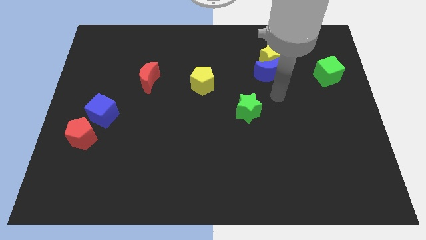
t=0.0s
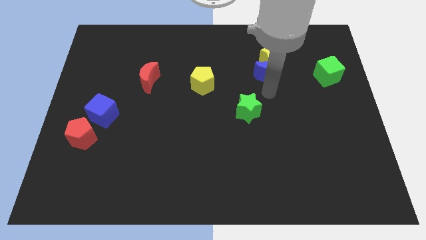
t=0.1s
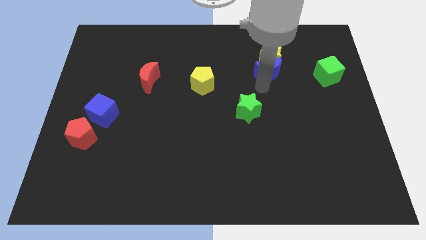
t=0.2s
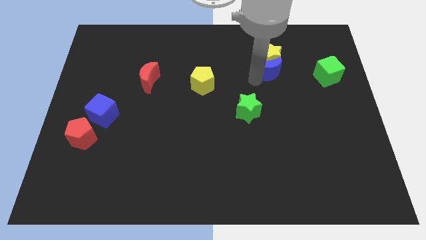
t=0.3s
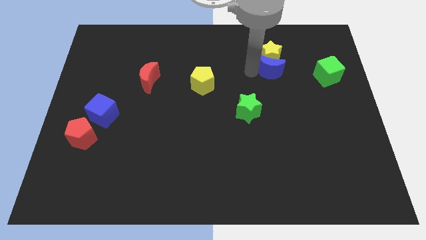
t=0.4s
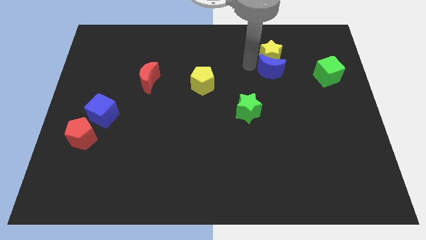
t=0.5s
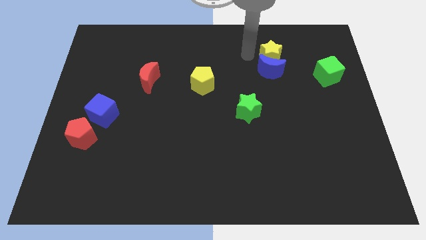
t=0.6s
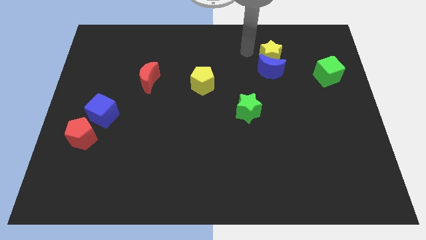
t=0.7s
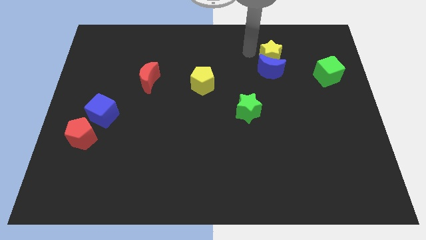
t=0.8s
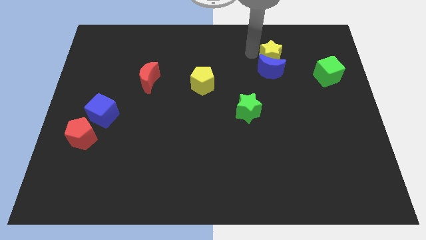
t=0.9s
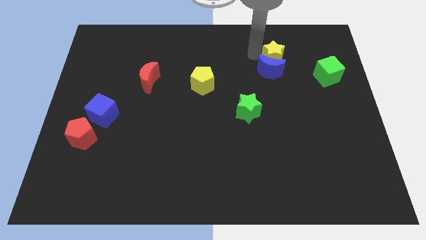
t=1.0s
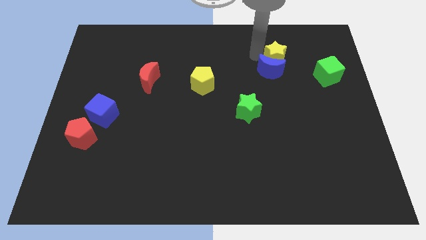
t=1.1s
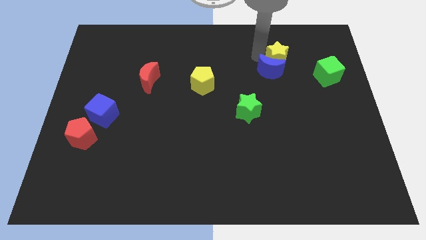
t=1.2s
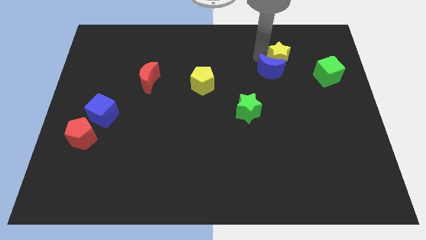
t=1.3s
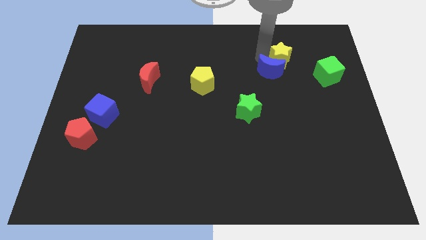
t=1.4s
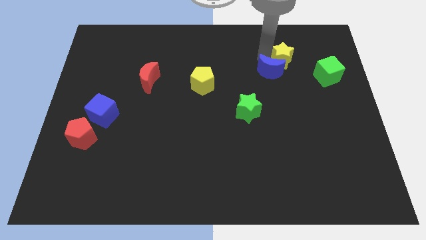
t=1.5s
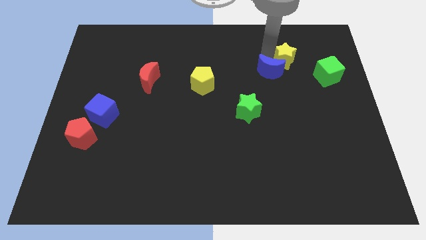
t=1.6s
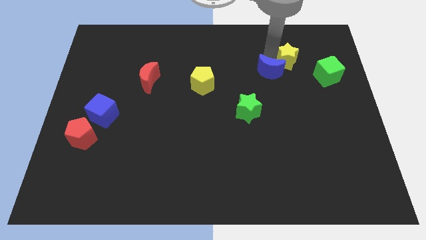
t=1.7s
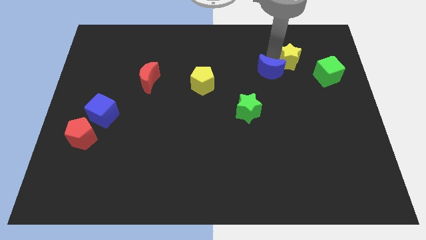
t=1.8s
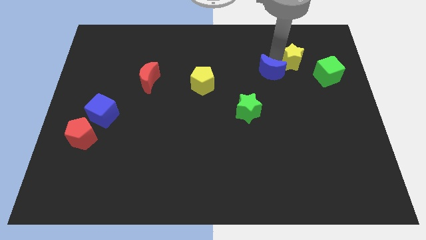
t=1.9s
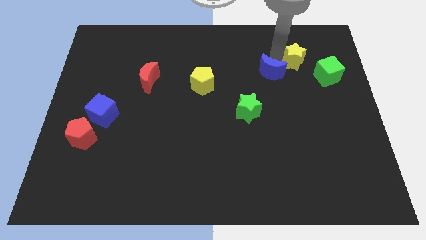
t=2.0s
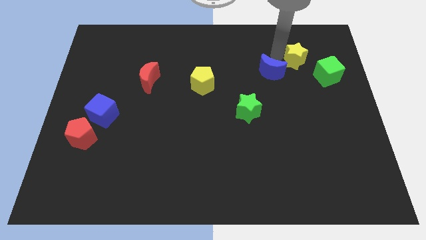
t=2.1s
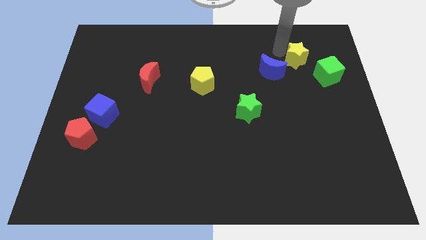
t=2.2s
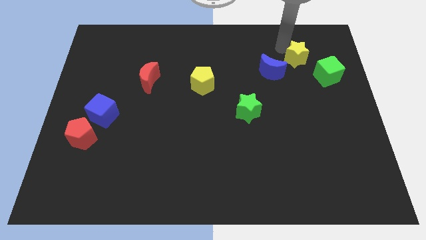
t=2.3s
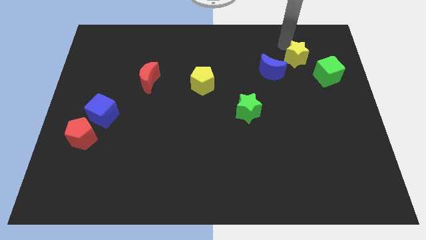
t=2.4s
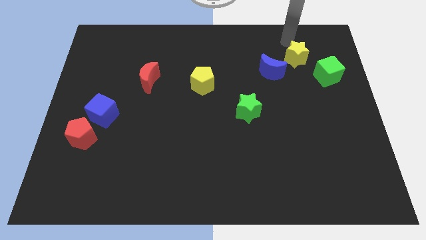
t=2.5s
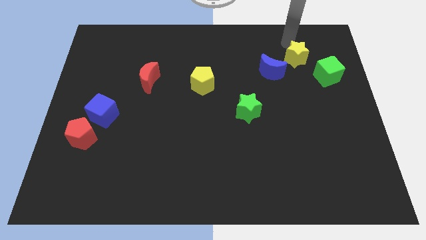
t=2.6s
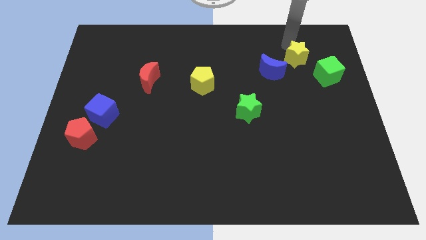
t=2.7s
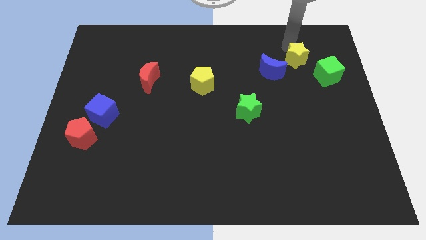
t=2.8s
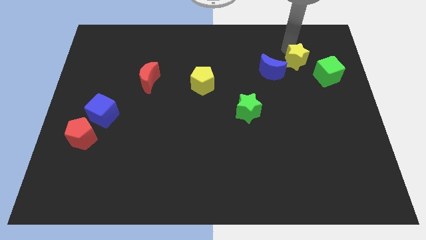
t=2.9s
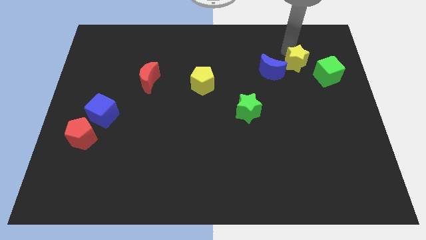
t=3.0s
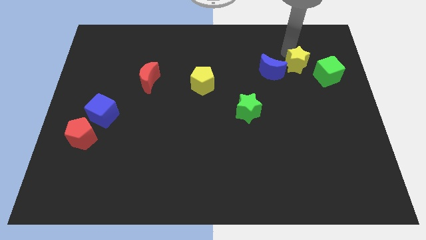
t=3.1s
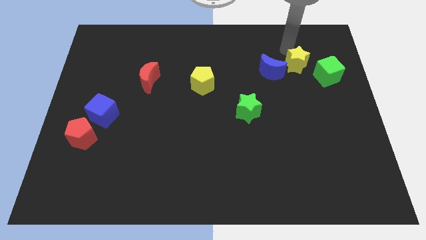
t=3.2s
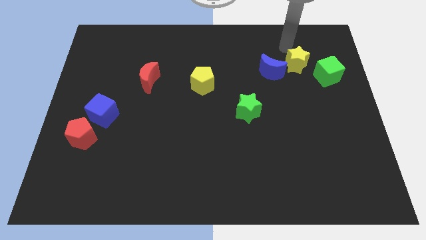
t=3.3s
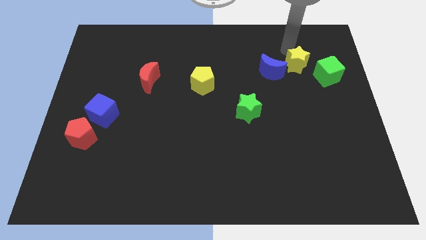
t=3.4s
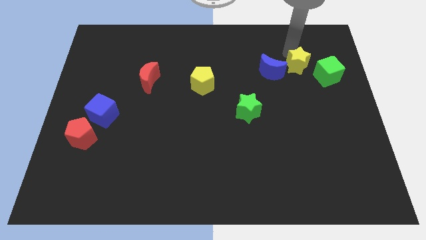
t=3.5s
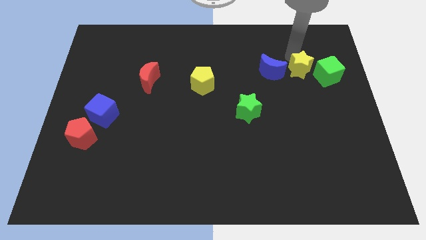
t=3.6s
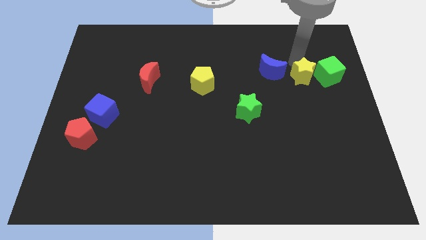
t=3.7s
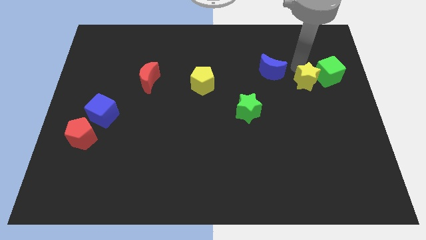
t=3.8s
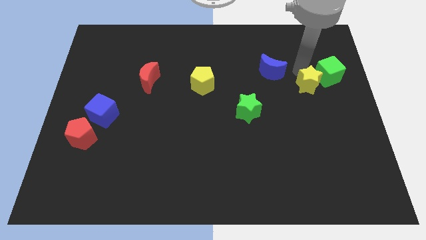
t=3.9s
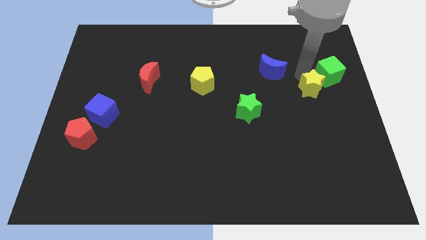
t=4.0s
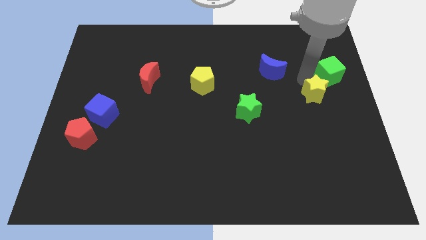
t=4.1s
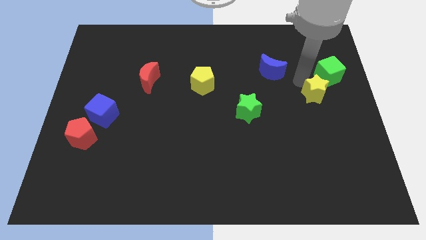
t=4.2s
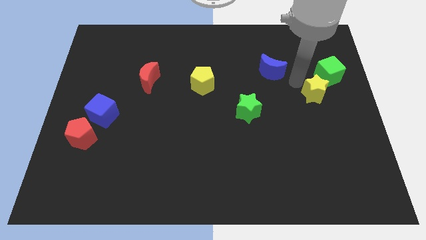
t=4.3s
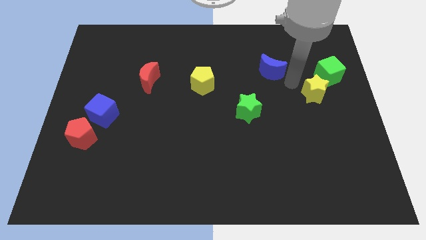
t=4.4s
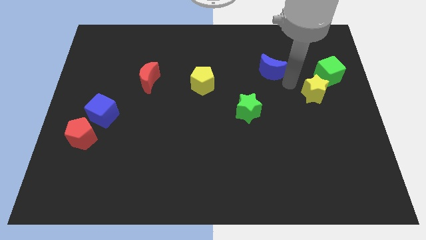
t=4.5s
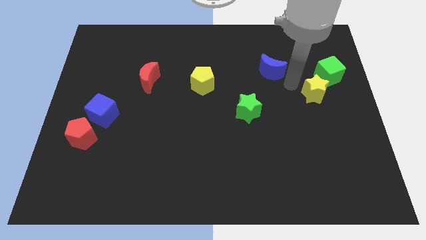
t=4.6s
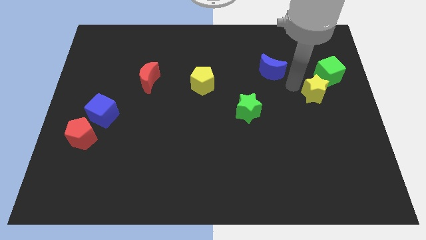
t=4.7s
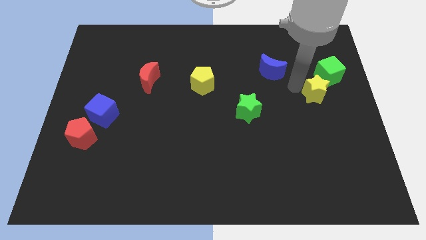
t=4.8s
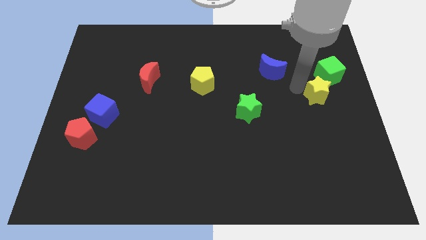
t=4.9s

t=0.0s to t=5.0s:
push the yellow star to the right side of the board

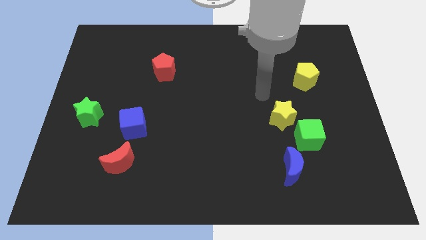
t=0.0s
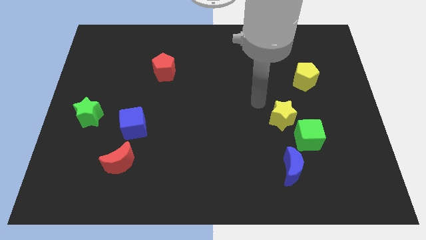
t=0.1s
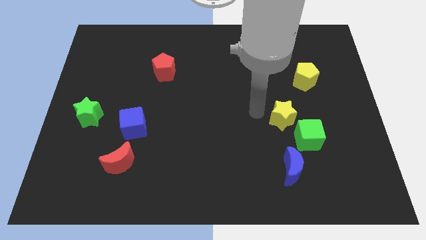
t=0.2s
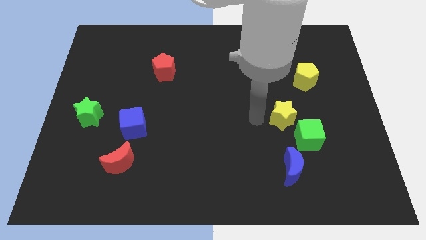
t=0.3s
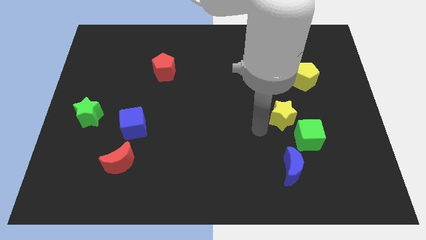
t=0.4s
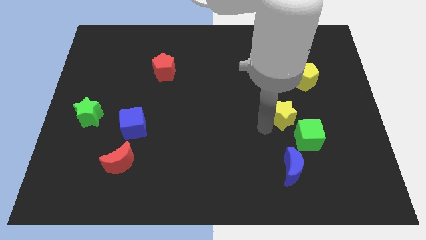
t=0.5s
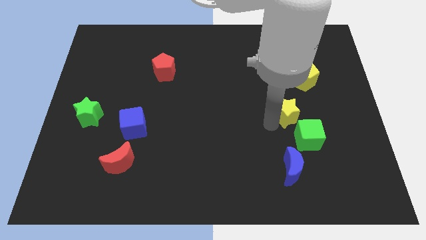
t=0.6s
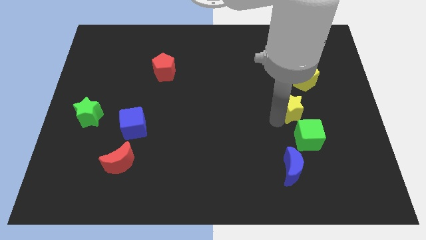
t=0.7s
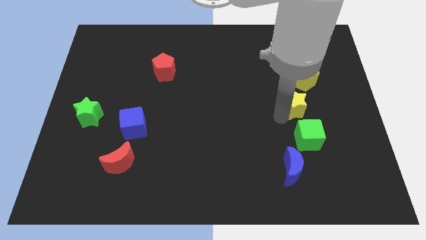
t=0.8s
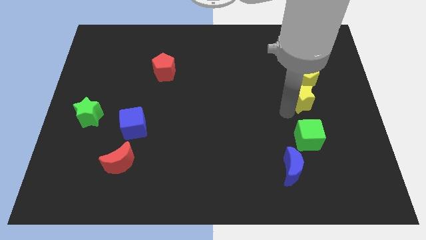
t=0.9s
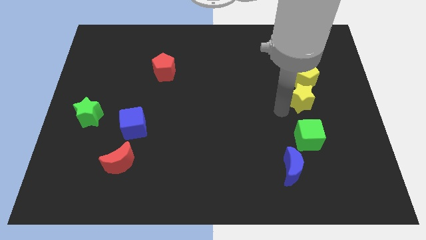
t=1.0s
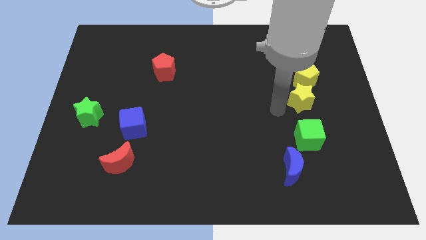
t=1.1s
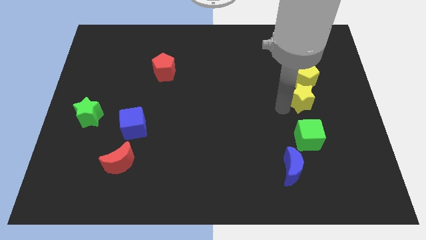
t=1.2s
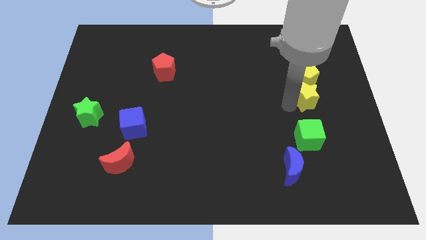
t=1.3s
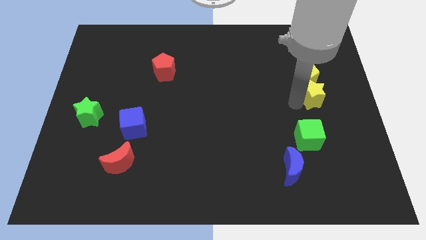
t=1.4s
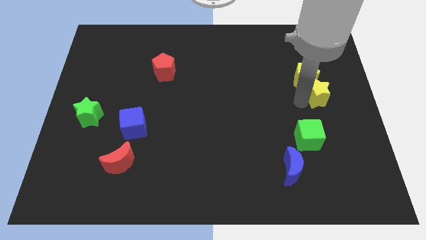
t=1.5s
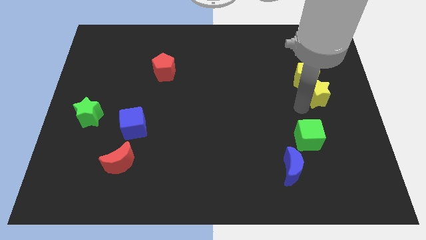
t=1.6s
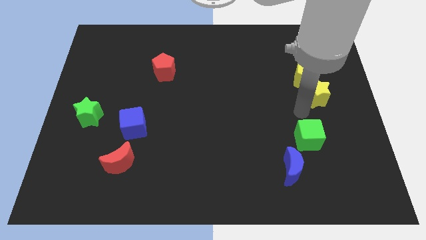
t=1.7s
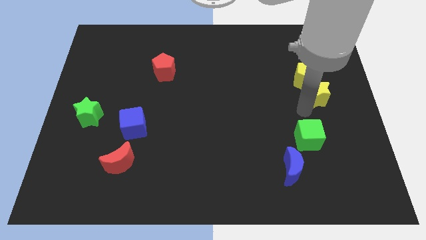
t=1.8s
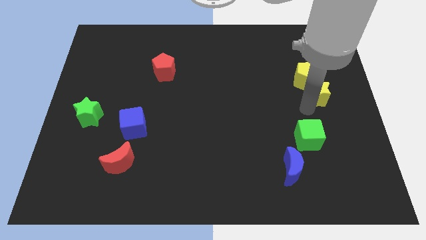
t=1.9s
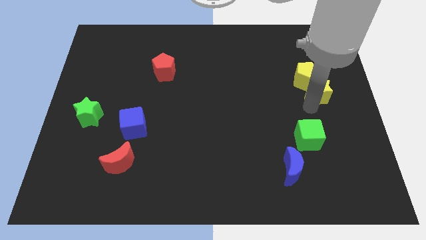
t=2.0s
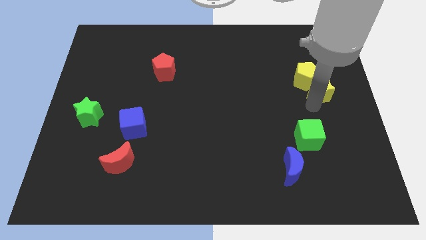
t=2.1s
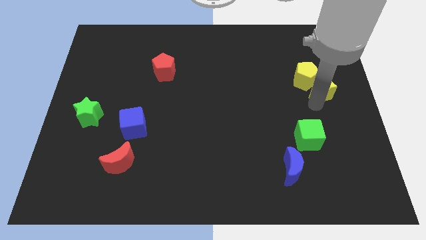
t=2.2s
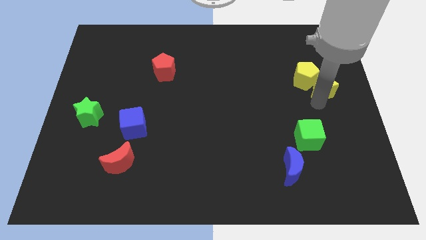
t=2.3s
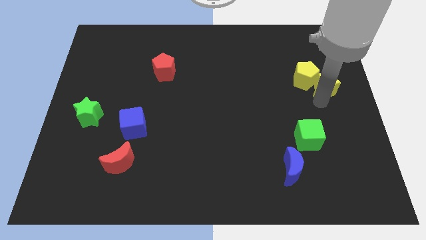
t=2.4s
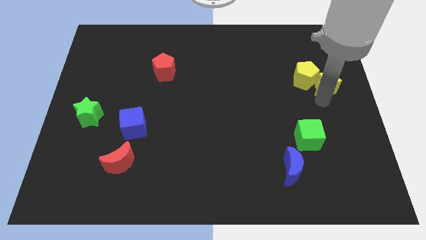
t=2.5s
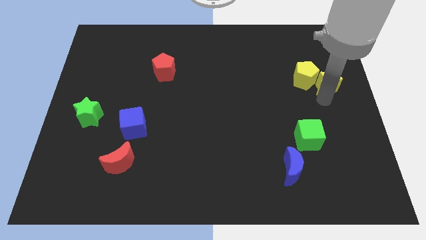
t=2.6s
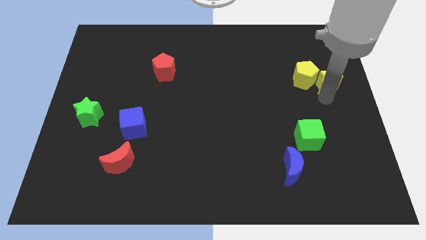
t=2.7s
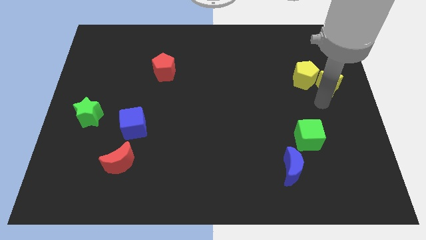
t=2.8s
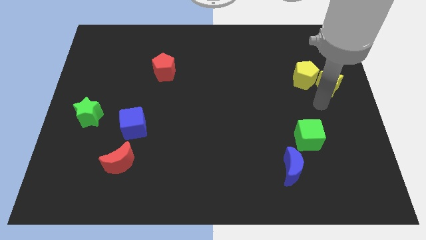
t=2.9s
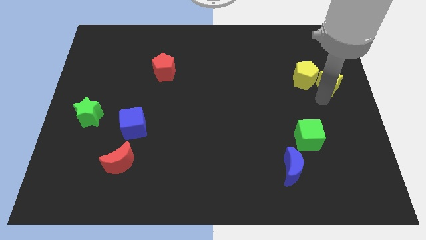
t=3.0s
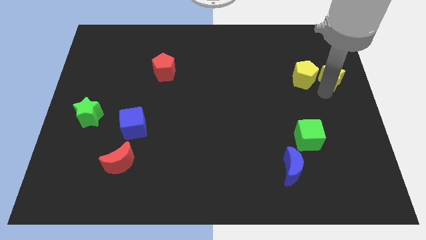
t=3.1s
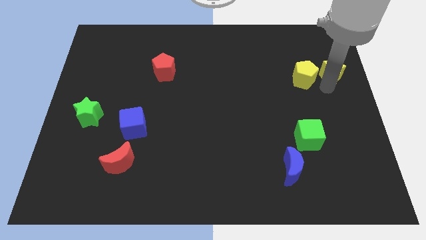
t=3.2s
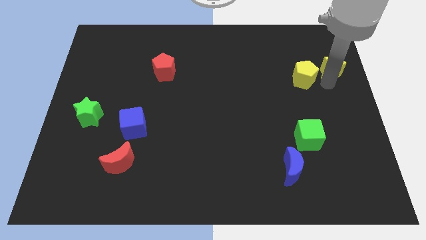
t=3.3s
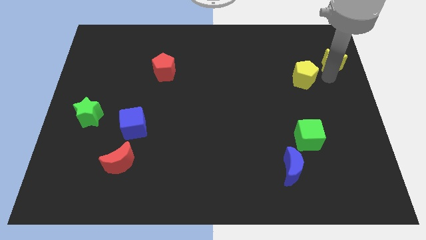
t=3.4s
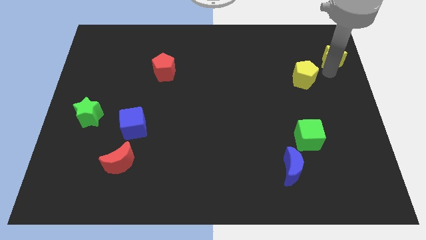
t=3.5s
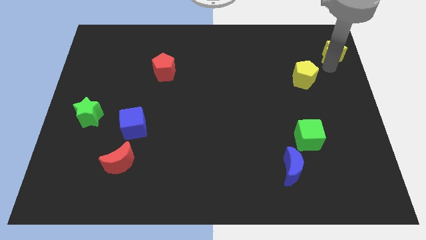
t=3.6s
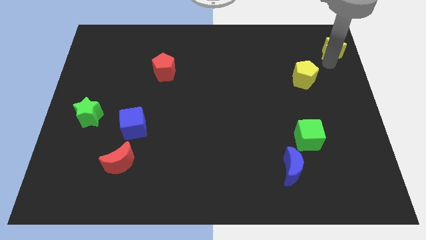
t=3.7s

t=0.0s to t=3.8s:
move the yellow star to the top right corner
